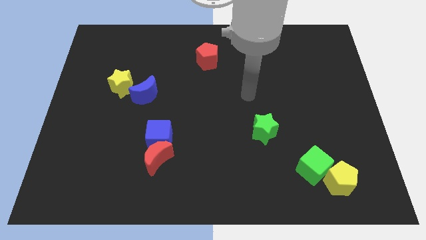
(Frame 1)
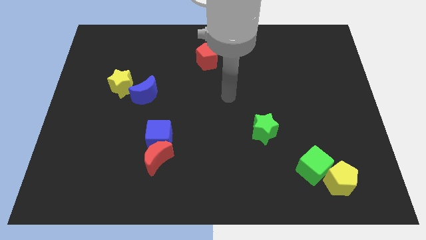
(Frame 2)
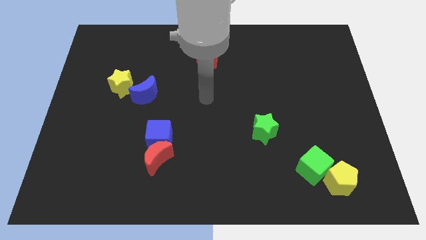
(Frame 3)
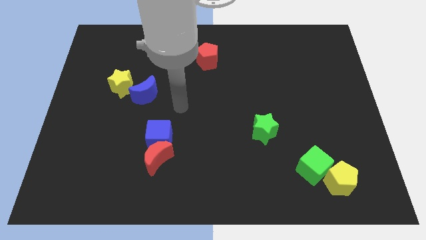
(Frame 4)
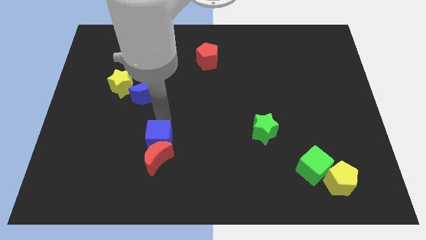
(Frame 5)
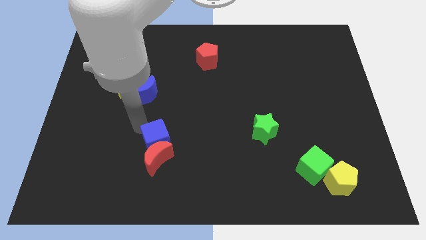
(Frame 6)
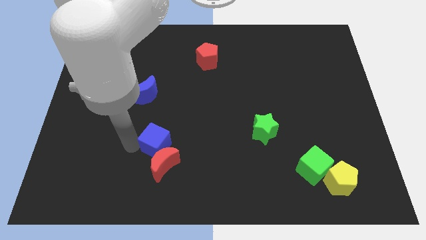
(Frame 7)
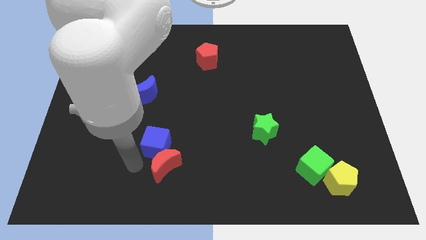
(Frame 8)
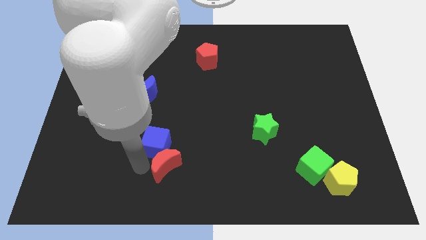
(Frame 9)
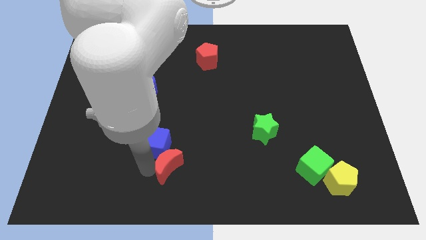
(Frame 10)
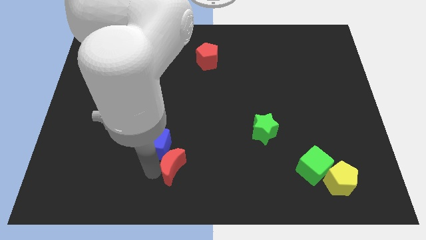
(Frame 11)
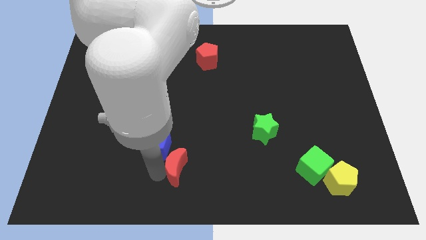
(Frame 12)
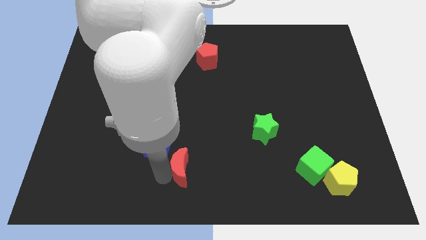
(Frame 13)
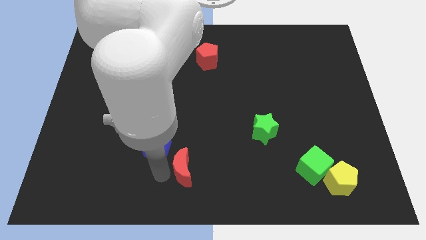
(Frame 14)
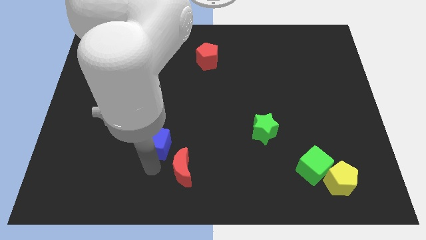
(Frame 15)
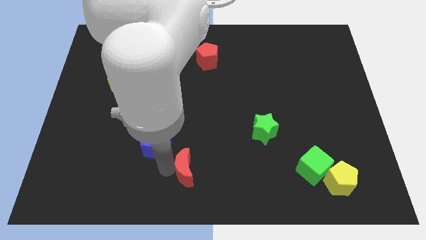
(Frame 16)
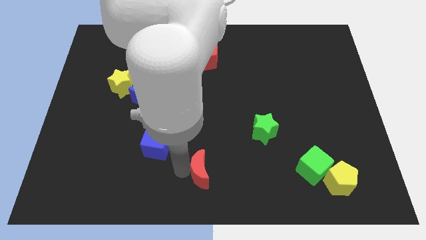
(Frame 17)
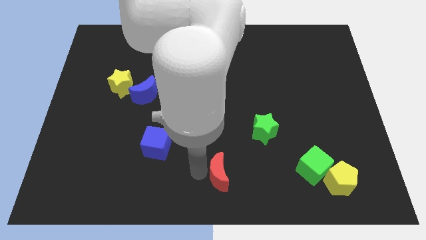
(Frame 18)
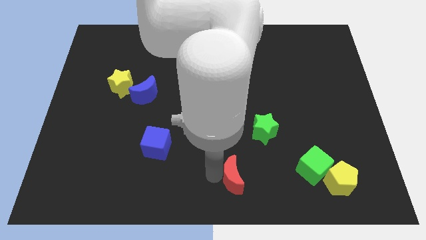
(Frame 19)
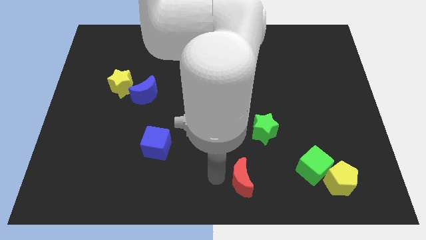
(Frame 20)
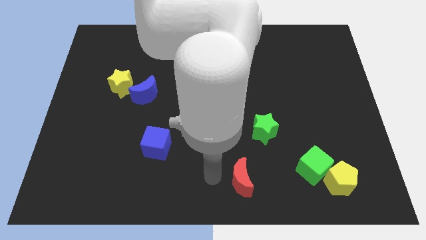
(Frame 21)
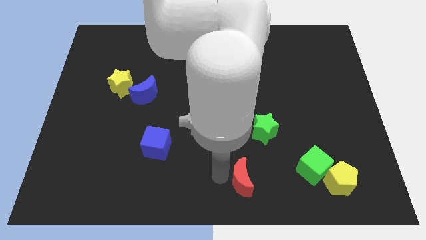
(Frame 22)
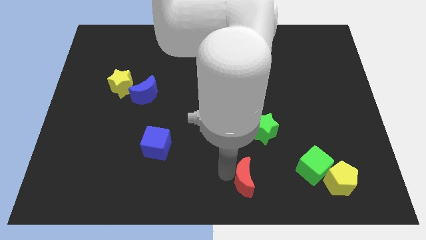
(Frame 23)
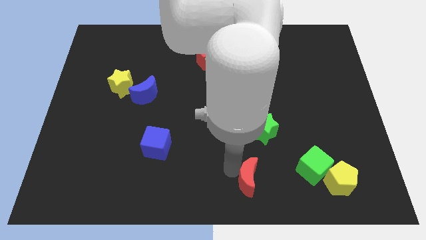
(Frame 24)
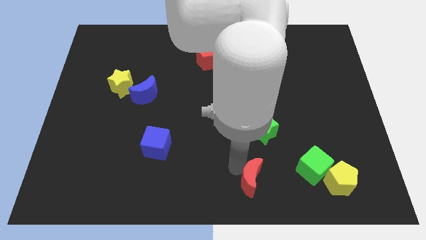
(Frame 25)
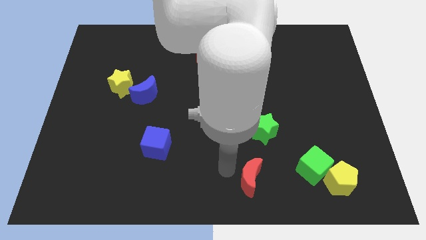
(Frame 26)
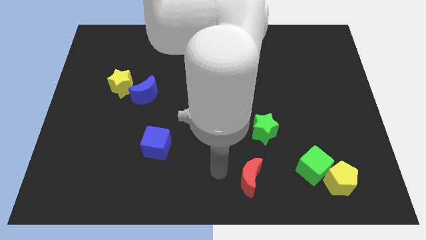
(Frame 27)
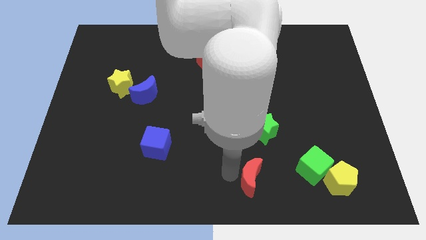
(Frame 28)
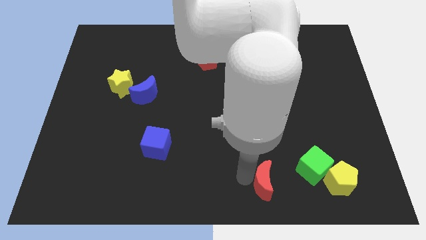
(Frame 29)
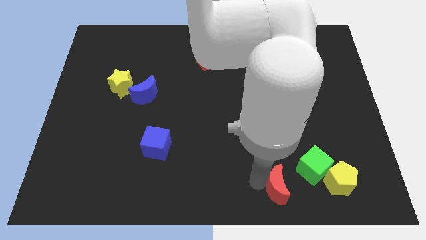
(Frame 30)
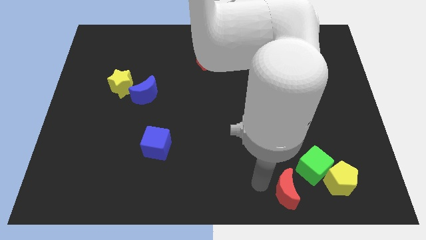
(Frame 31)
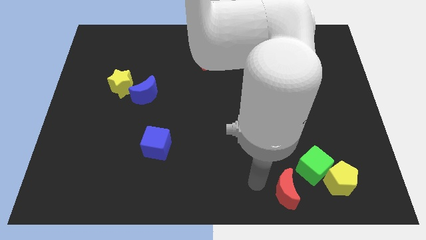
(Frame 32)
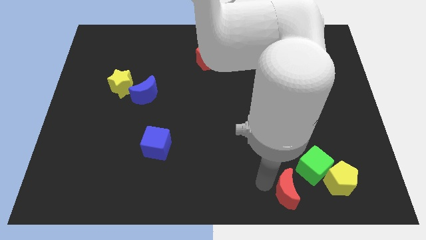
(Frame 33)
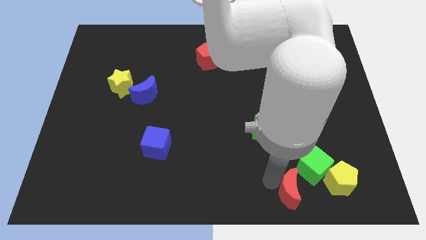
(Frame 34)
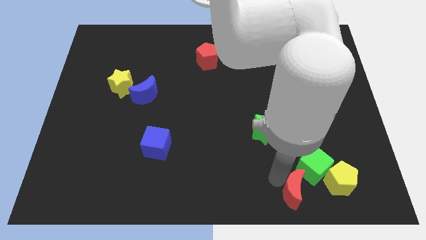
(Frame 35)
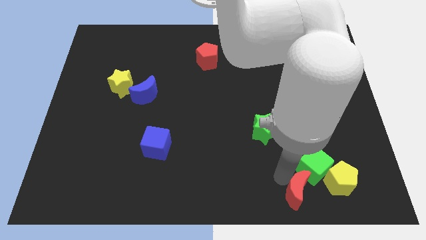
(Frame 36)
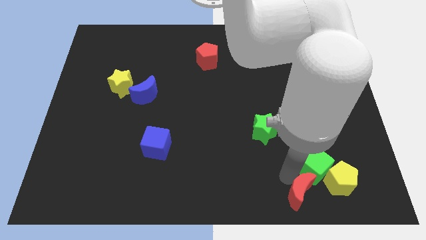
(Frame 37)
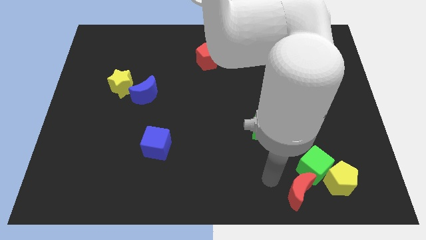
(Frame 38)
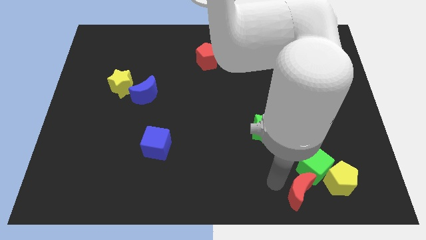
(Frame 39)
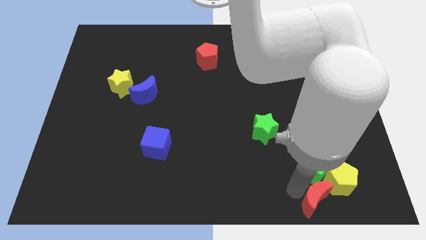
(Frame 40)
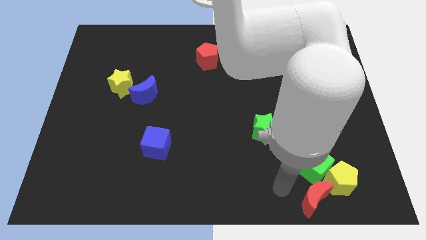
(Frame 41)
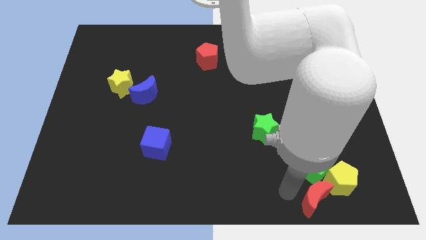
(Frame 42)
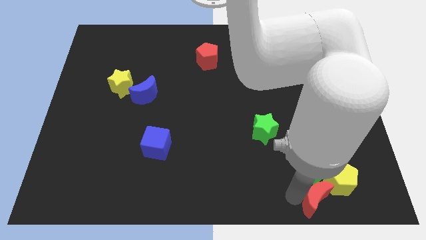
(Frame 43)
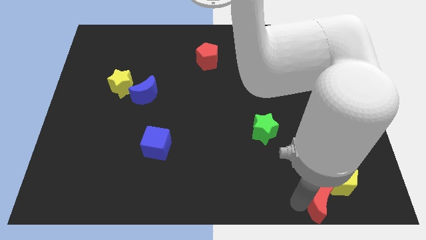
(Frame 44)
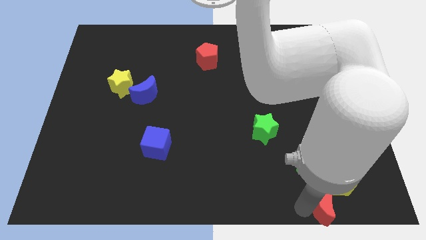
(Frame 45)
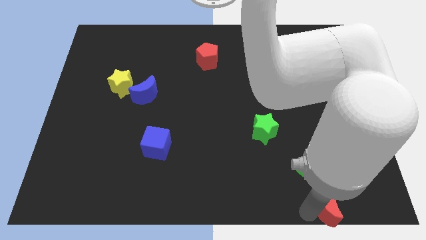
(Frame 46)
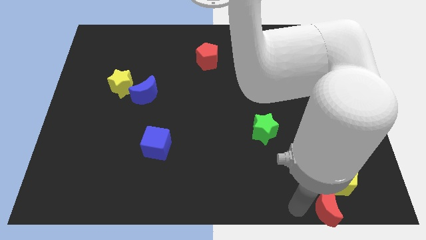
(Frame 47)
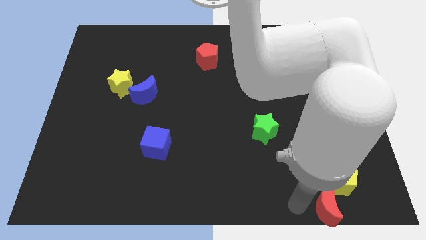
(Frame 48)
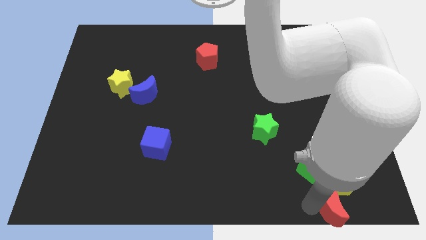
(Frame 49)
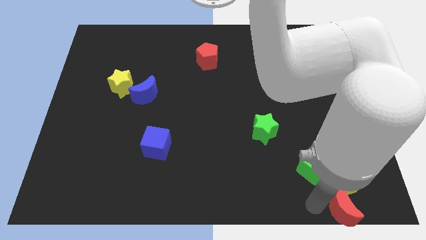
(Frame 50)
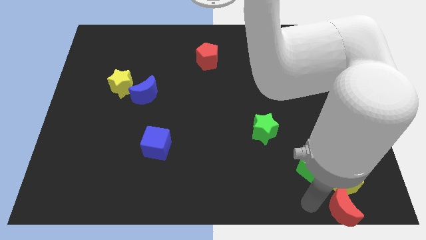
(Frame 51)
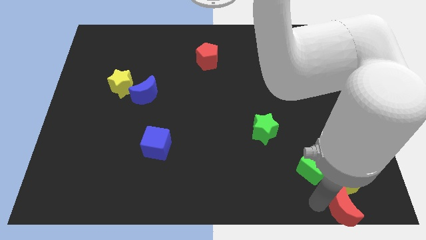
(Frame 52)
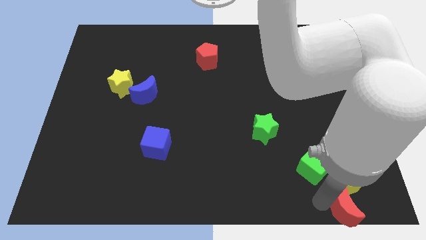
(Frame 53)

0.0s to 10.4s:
push the red moon to the bottom right

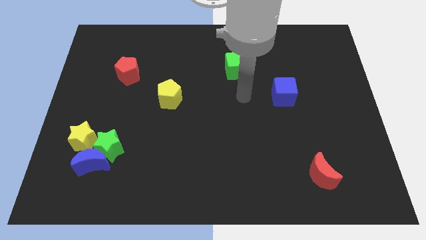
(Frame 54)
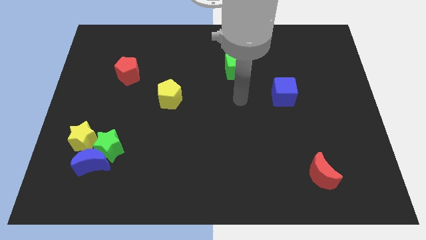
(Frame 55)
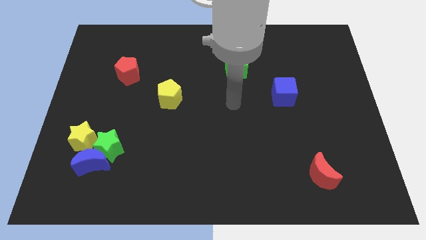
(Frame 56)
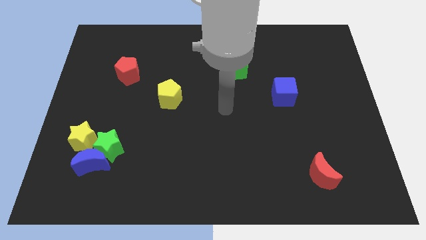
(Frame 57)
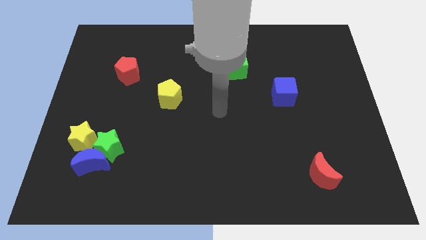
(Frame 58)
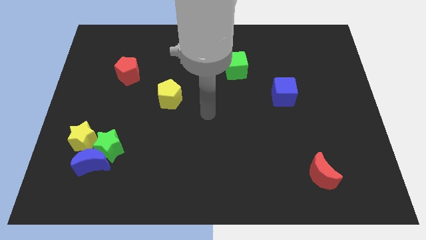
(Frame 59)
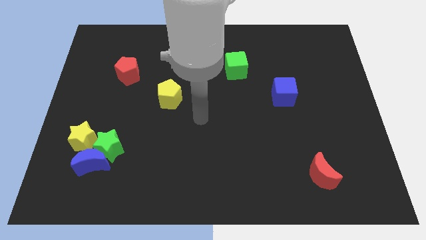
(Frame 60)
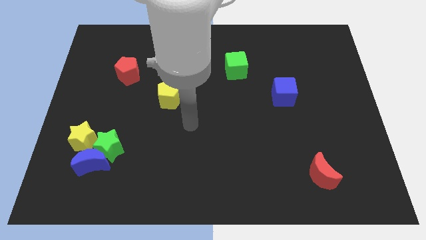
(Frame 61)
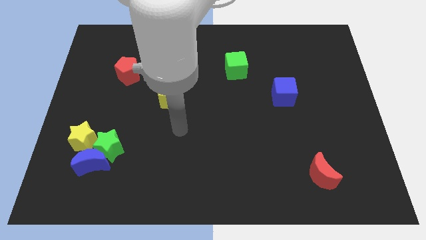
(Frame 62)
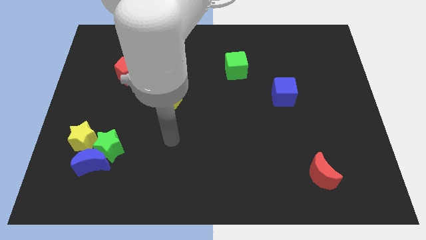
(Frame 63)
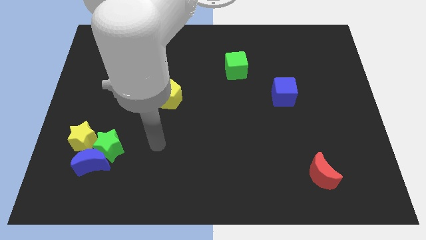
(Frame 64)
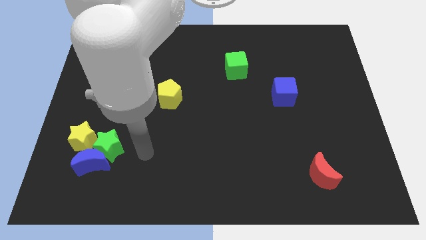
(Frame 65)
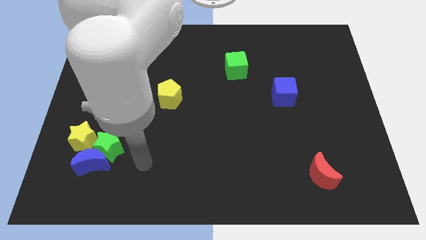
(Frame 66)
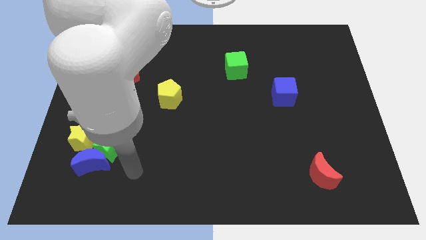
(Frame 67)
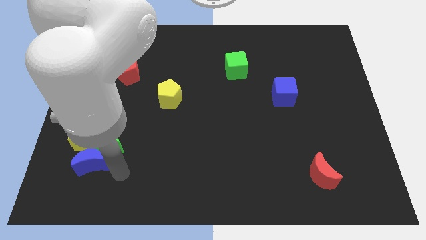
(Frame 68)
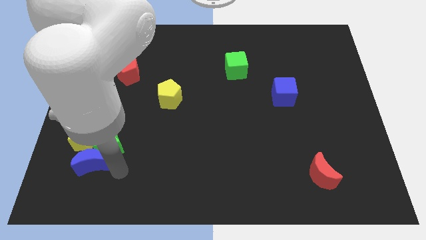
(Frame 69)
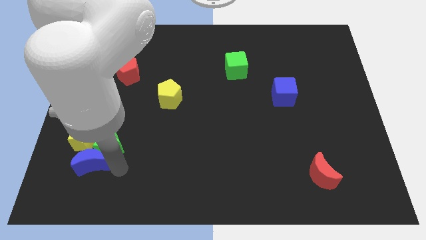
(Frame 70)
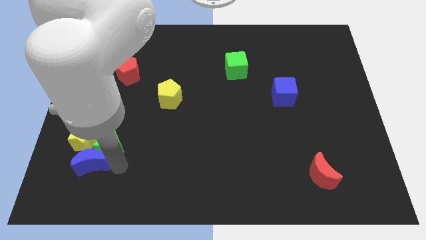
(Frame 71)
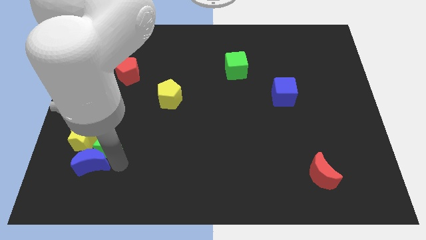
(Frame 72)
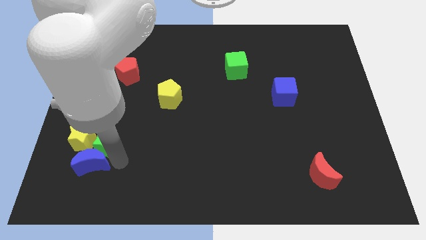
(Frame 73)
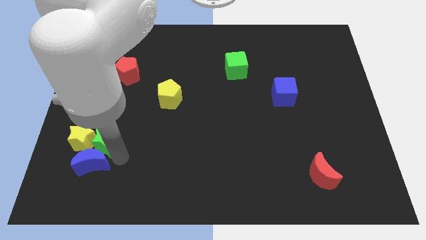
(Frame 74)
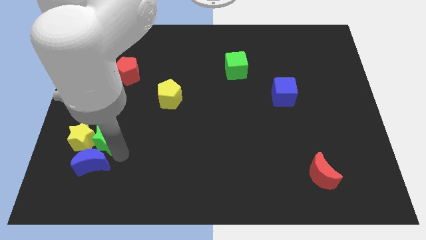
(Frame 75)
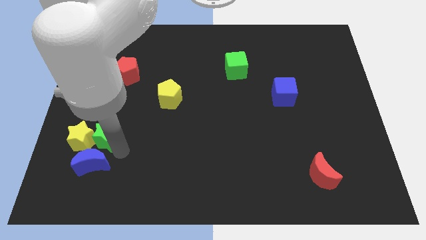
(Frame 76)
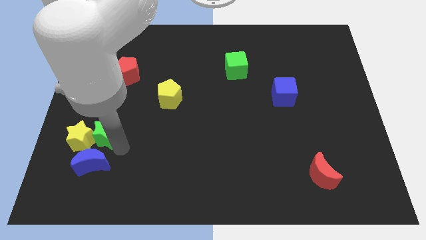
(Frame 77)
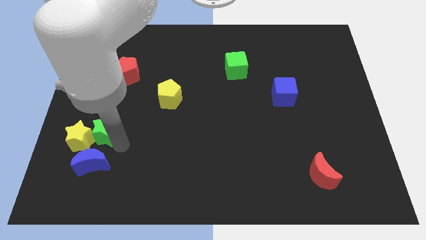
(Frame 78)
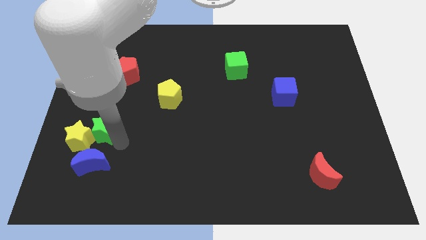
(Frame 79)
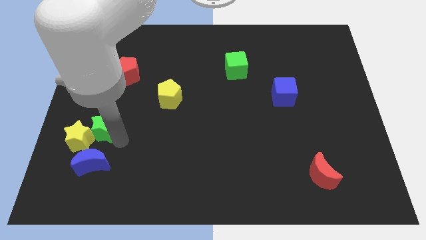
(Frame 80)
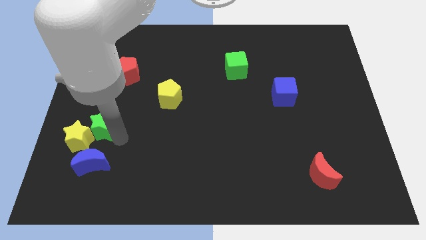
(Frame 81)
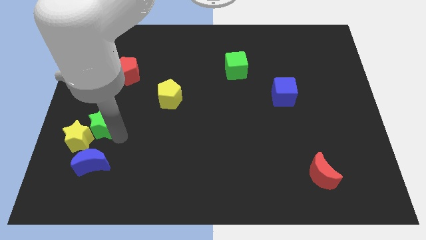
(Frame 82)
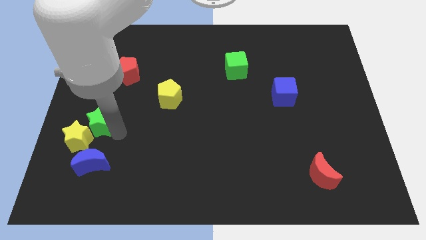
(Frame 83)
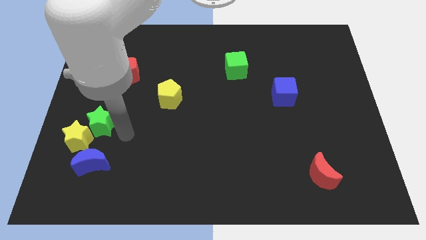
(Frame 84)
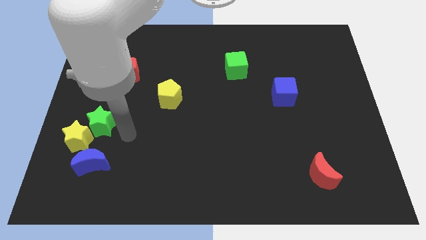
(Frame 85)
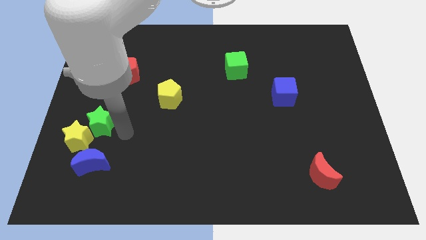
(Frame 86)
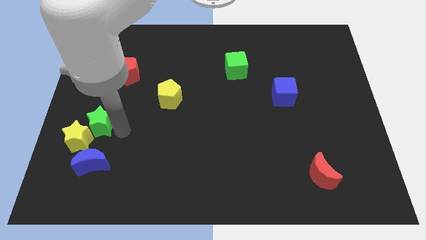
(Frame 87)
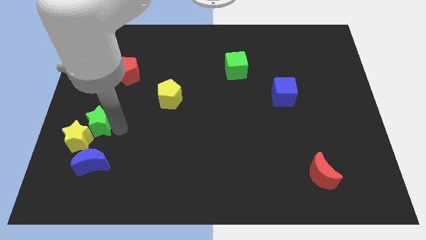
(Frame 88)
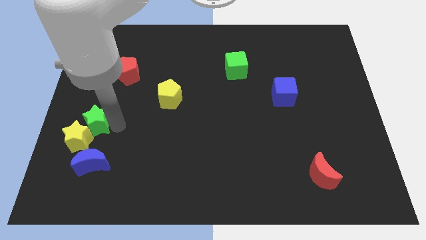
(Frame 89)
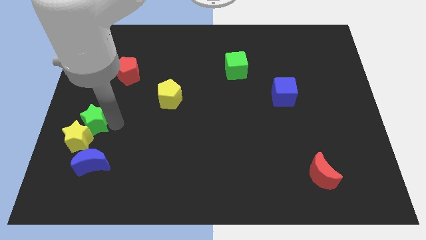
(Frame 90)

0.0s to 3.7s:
push the green star to the left side
